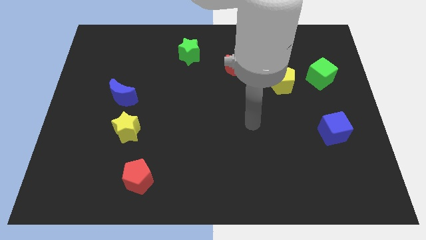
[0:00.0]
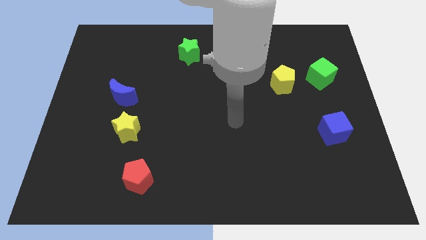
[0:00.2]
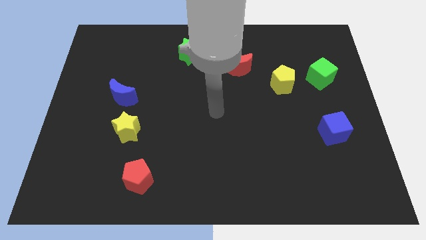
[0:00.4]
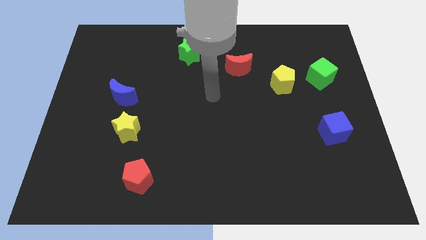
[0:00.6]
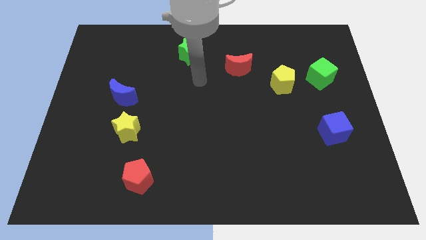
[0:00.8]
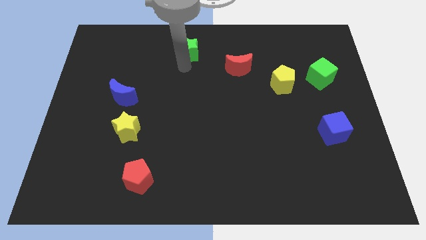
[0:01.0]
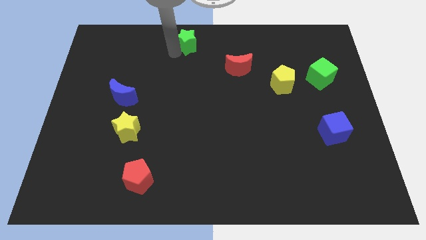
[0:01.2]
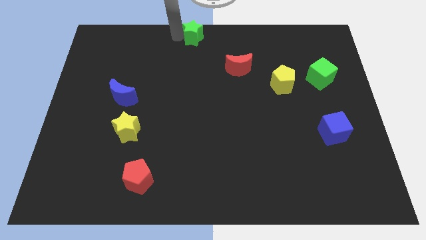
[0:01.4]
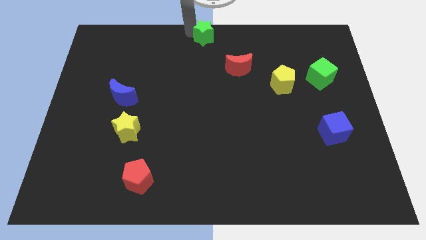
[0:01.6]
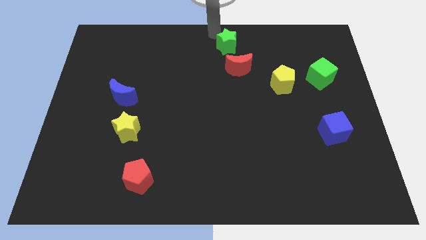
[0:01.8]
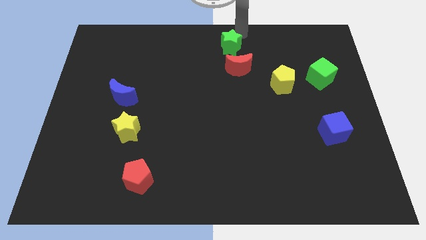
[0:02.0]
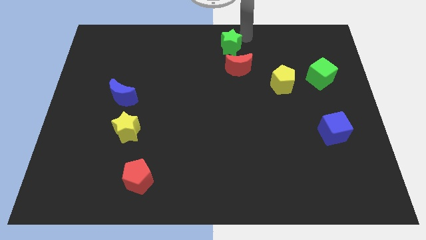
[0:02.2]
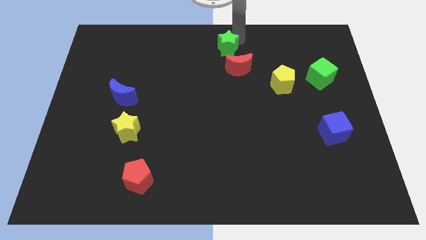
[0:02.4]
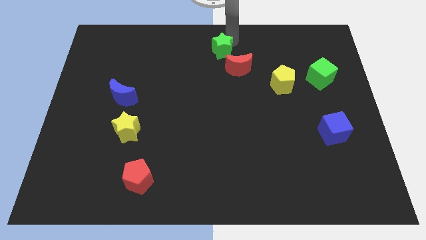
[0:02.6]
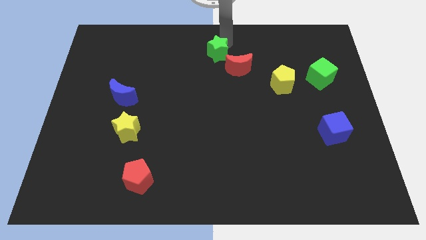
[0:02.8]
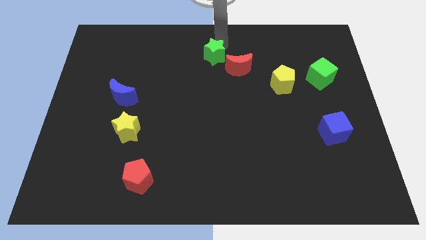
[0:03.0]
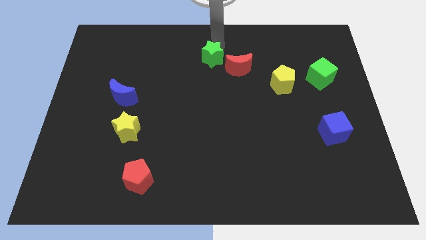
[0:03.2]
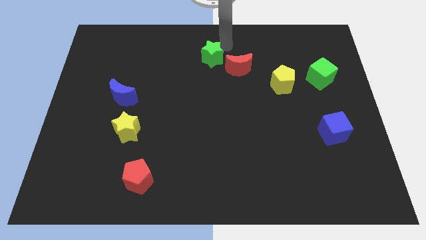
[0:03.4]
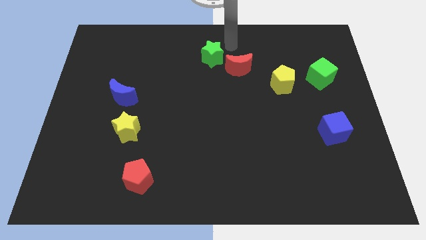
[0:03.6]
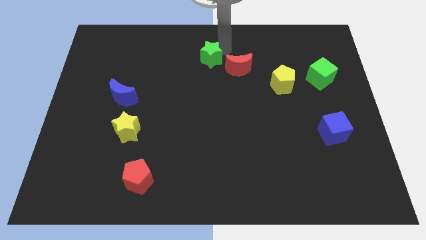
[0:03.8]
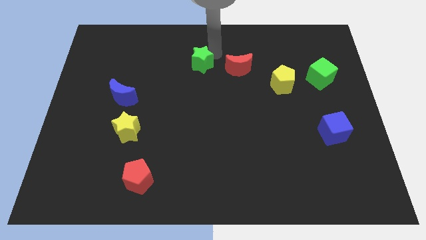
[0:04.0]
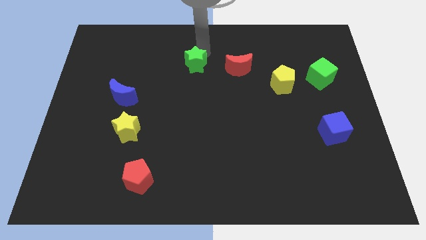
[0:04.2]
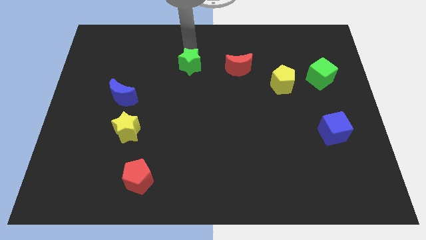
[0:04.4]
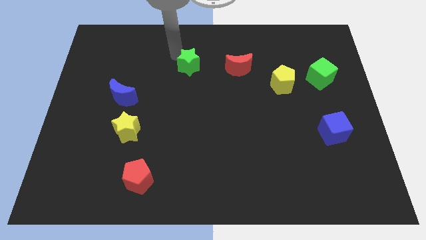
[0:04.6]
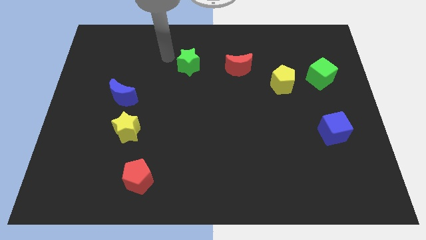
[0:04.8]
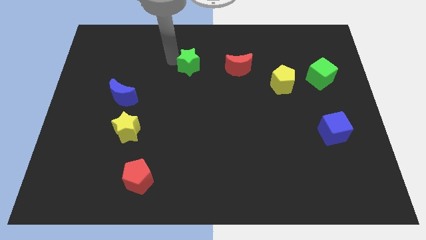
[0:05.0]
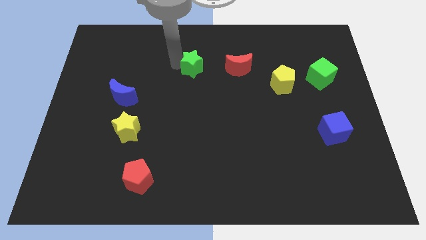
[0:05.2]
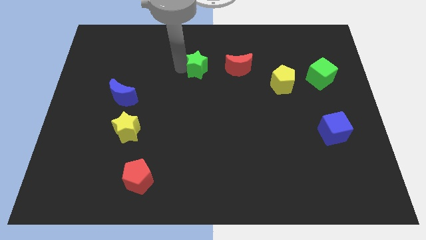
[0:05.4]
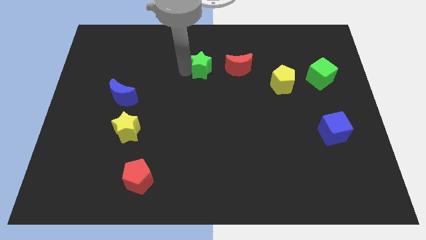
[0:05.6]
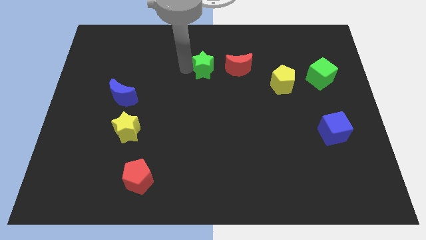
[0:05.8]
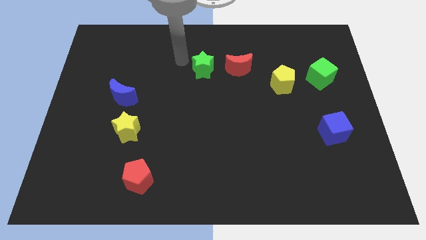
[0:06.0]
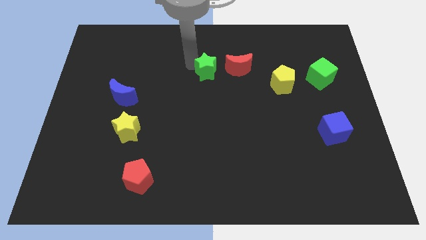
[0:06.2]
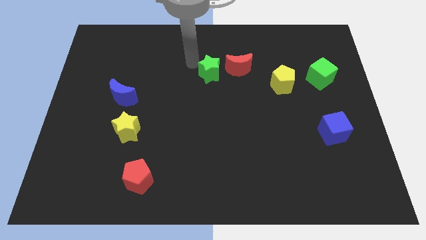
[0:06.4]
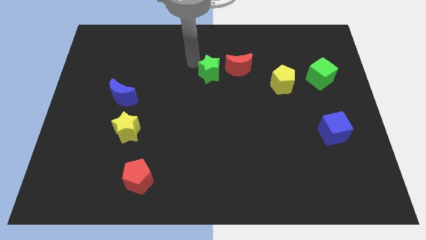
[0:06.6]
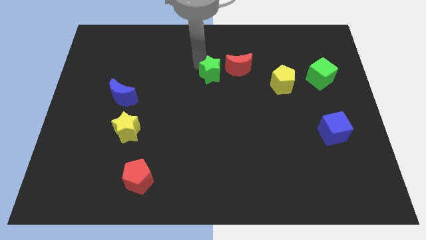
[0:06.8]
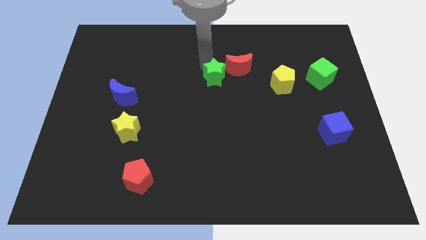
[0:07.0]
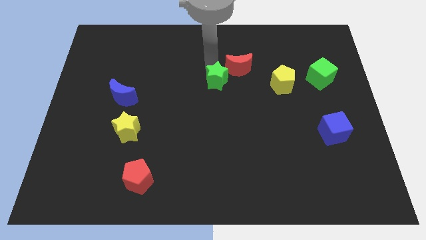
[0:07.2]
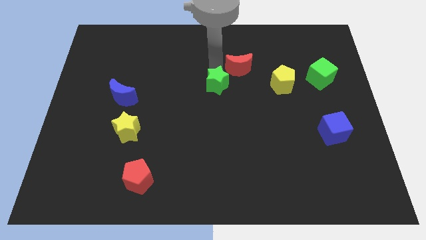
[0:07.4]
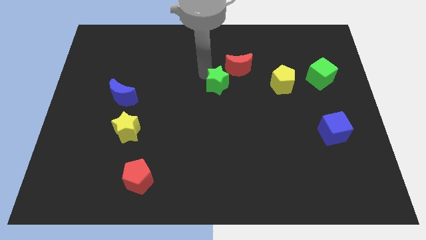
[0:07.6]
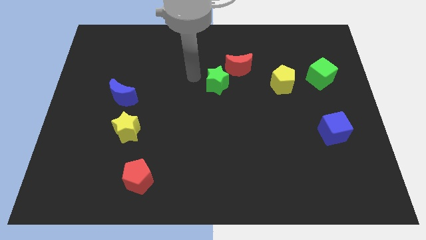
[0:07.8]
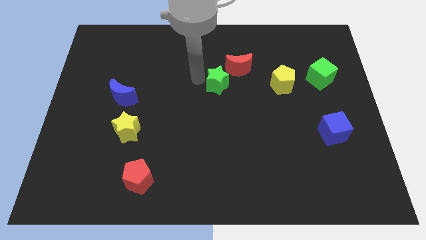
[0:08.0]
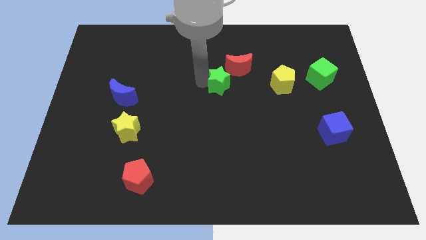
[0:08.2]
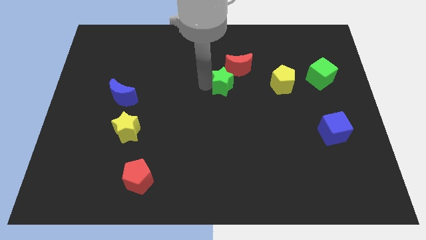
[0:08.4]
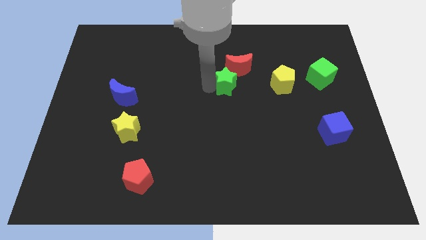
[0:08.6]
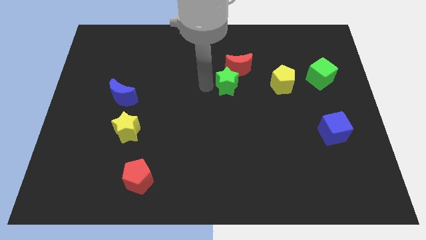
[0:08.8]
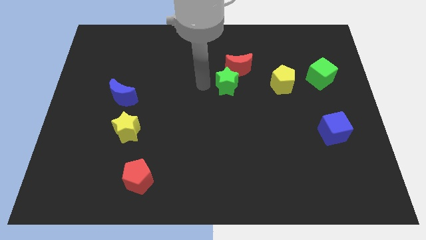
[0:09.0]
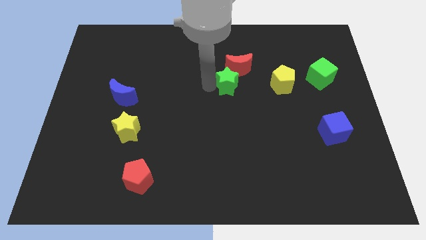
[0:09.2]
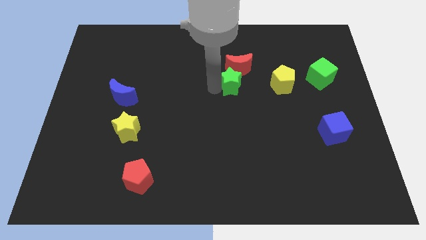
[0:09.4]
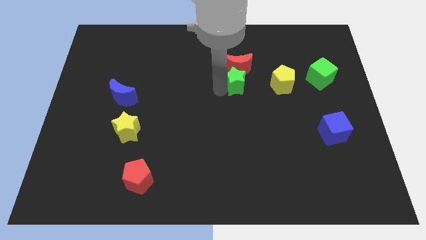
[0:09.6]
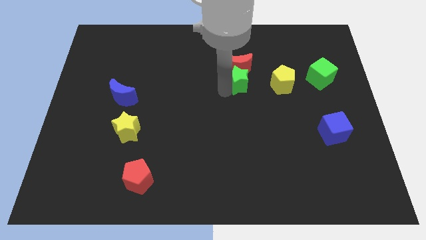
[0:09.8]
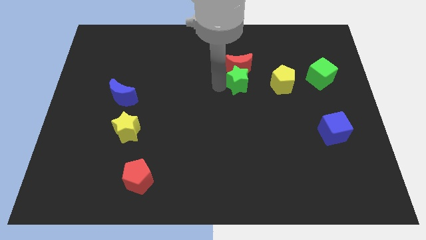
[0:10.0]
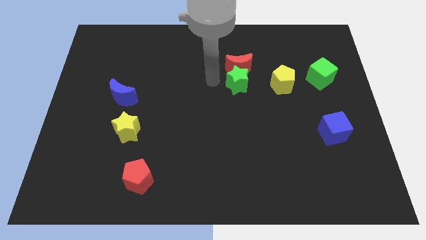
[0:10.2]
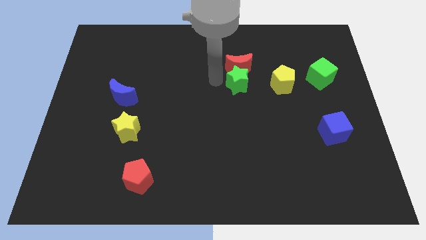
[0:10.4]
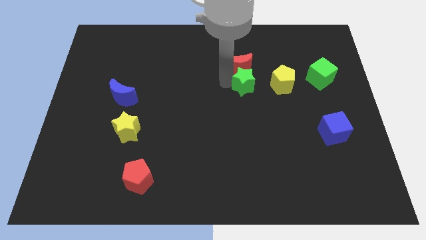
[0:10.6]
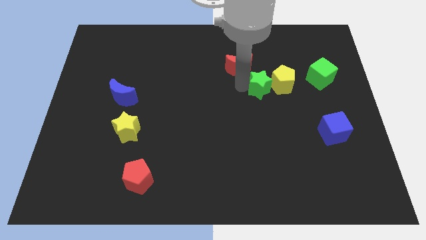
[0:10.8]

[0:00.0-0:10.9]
slide the green star towards the yellow pentagon

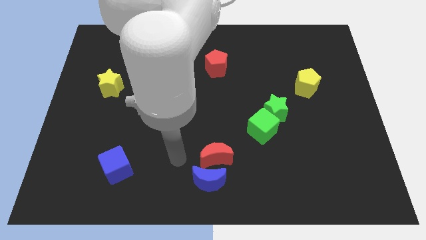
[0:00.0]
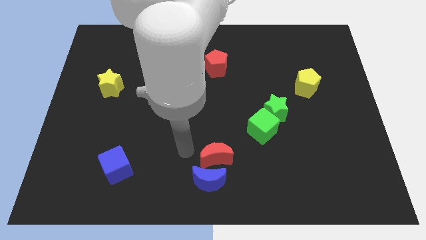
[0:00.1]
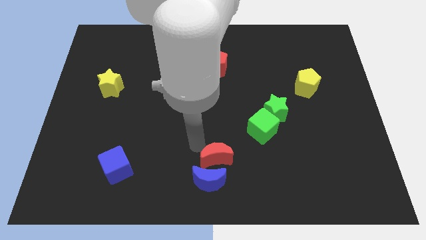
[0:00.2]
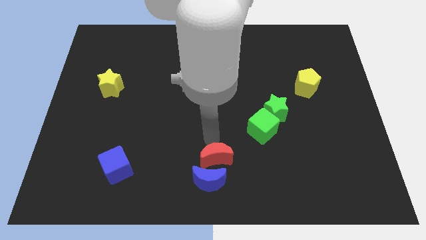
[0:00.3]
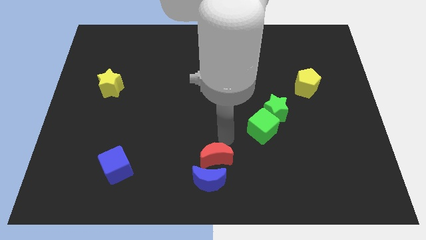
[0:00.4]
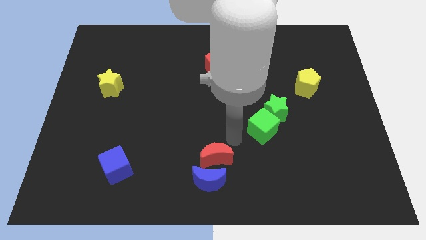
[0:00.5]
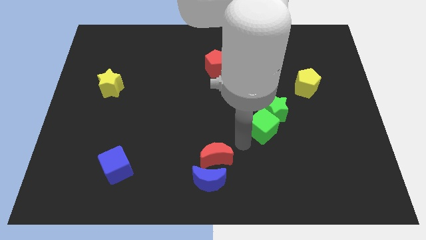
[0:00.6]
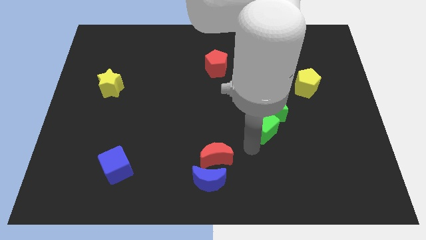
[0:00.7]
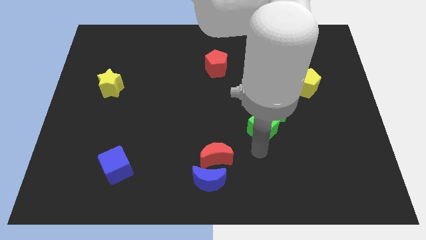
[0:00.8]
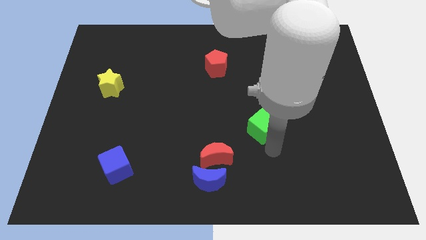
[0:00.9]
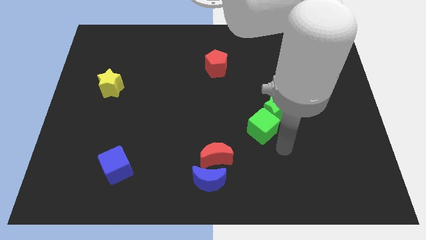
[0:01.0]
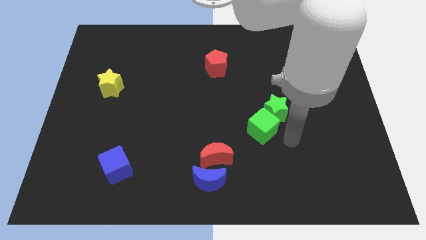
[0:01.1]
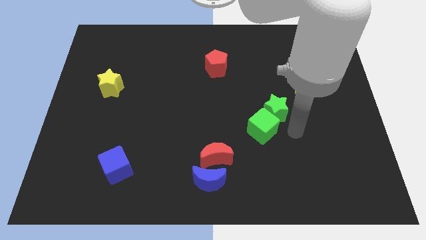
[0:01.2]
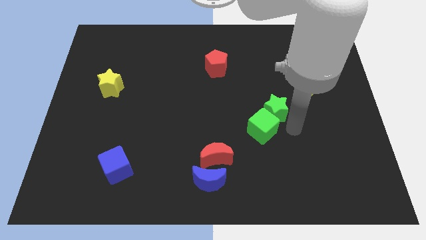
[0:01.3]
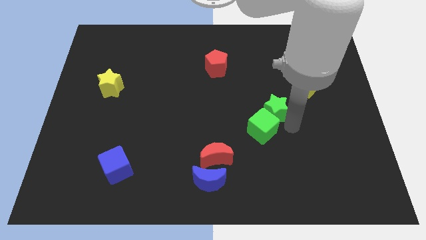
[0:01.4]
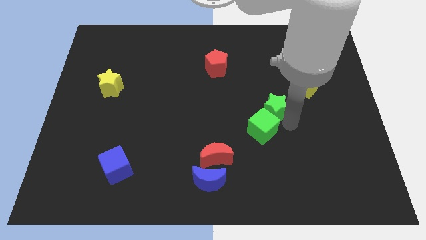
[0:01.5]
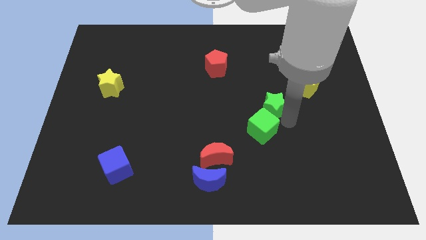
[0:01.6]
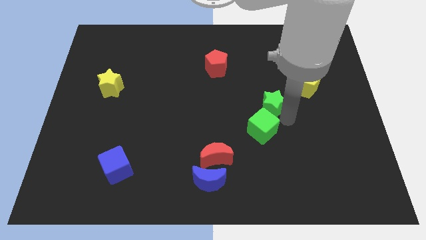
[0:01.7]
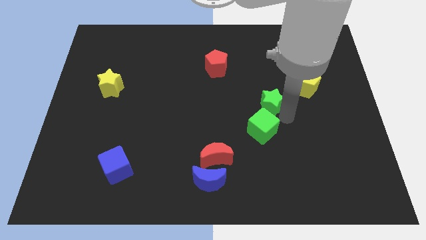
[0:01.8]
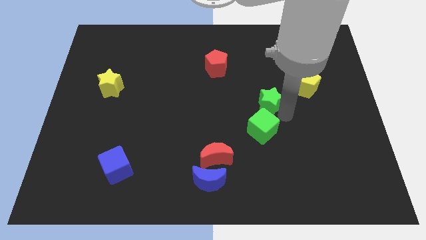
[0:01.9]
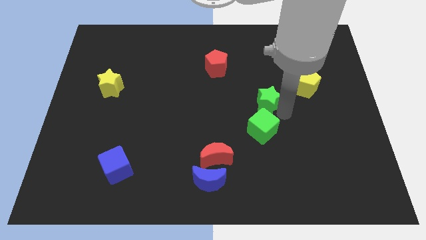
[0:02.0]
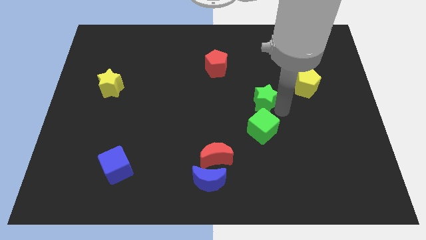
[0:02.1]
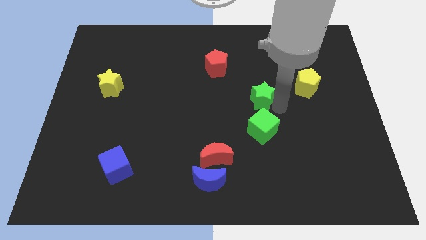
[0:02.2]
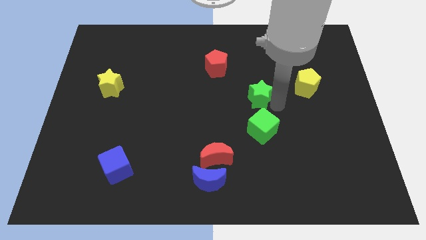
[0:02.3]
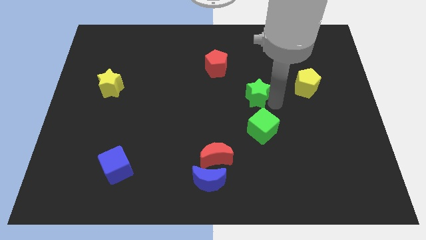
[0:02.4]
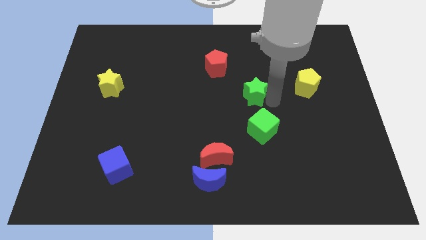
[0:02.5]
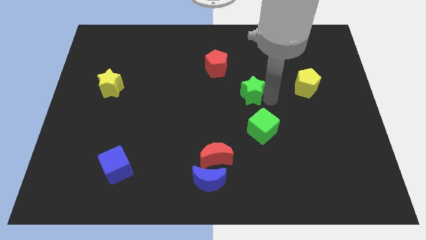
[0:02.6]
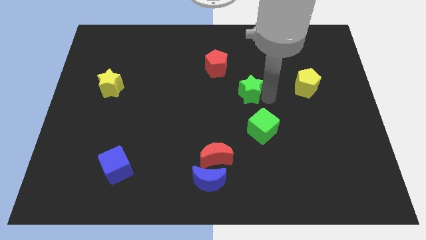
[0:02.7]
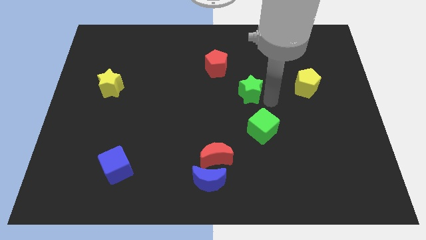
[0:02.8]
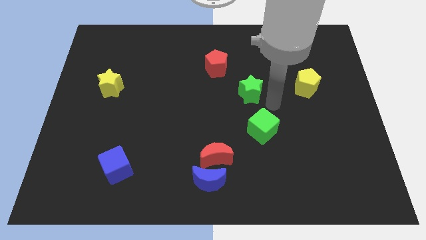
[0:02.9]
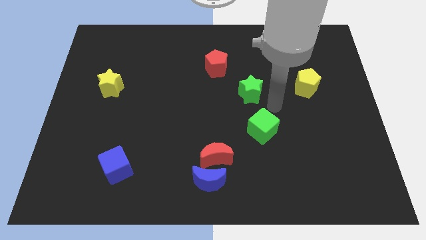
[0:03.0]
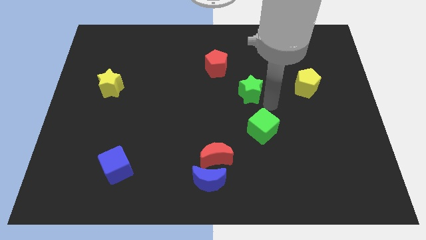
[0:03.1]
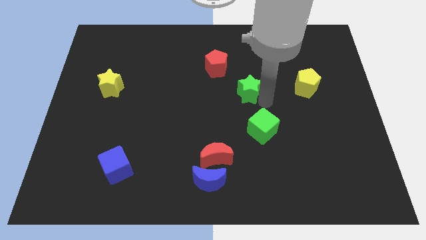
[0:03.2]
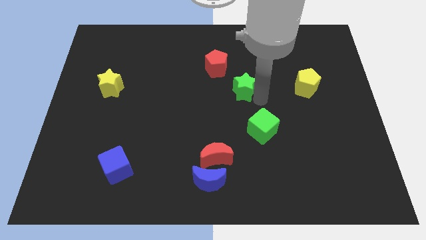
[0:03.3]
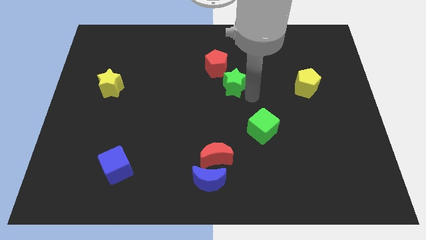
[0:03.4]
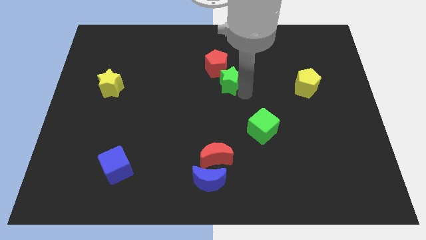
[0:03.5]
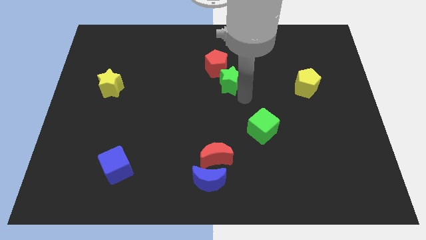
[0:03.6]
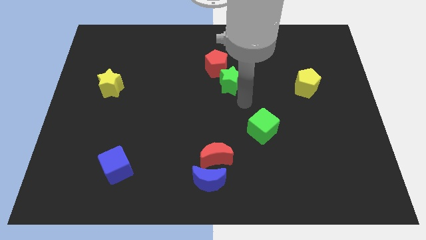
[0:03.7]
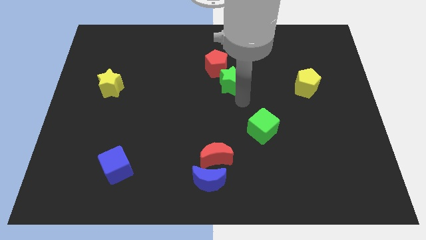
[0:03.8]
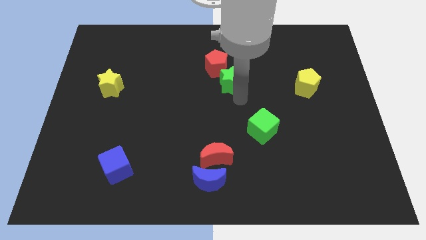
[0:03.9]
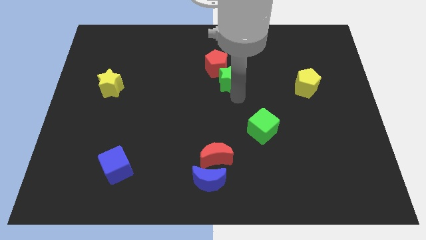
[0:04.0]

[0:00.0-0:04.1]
put the green star close to the red pentagon
